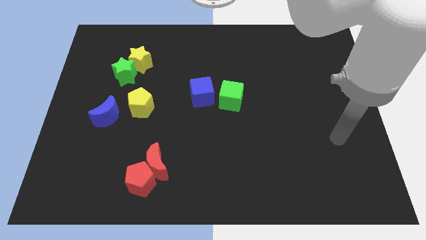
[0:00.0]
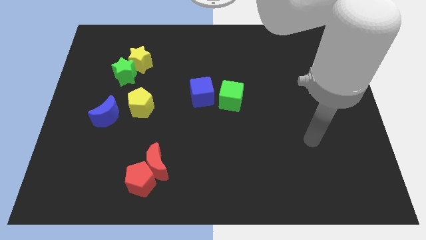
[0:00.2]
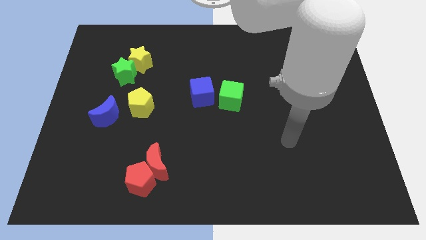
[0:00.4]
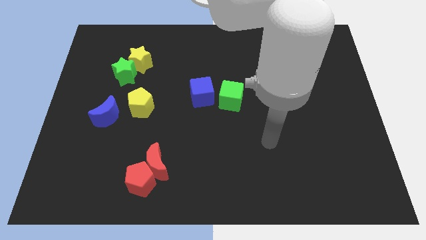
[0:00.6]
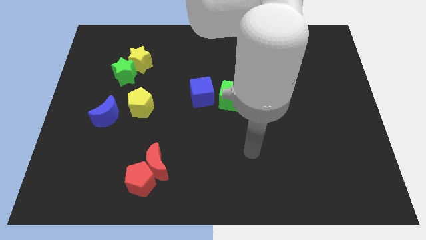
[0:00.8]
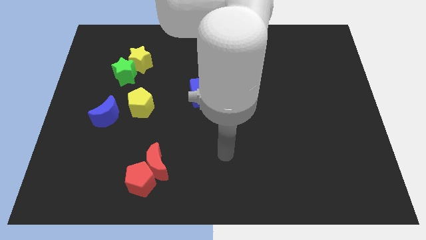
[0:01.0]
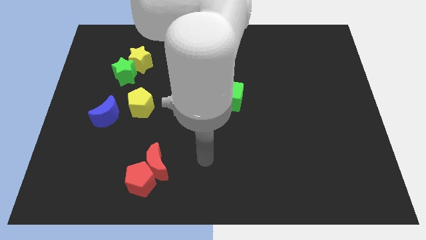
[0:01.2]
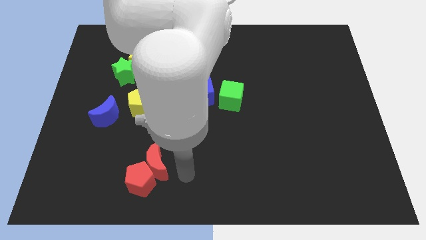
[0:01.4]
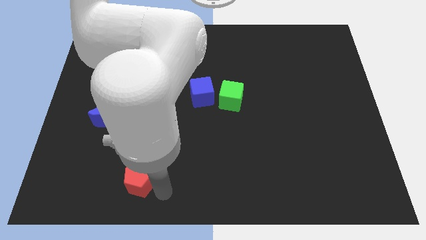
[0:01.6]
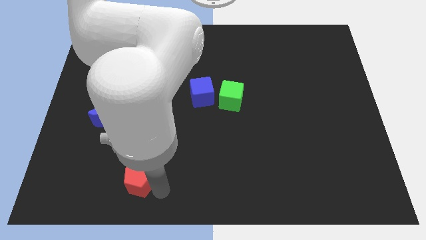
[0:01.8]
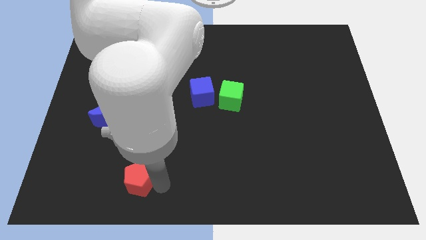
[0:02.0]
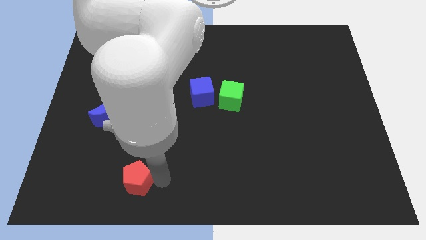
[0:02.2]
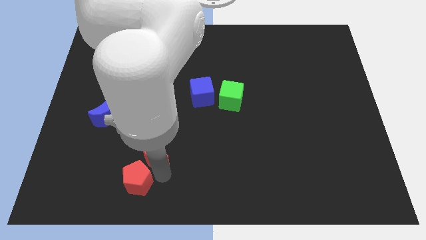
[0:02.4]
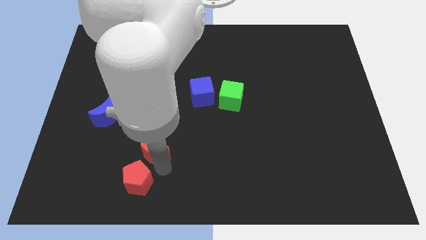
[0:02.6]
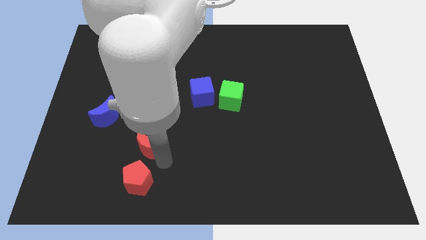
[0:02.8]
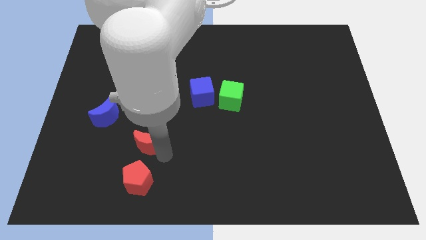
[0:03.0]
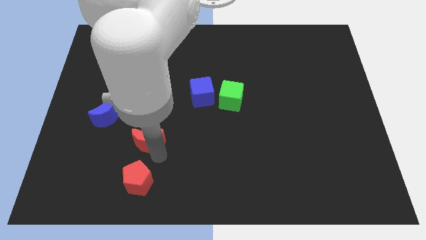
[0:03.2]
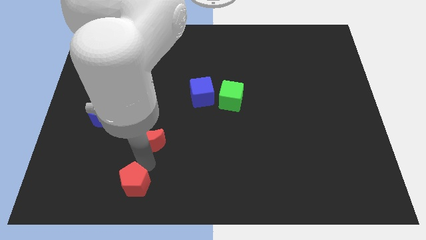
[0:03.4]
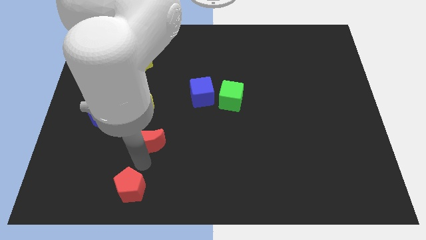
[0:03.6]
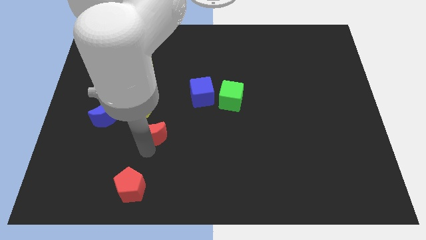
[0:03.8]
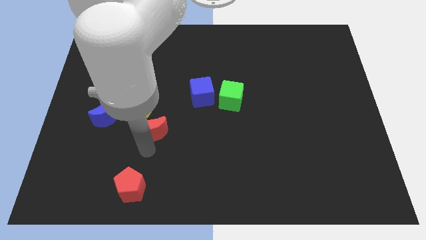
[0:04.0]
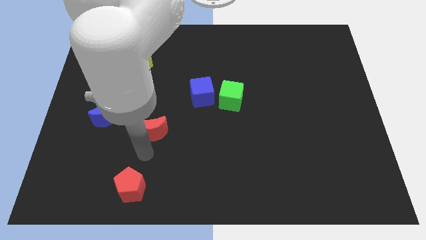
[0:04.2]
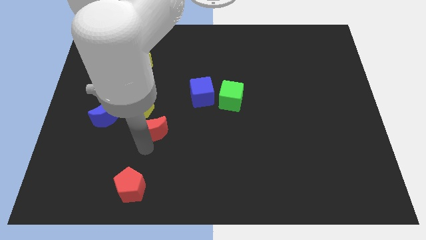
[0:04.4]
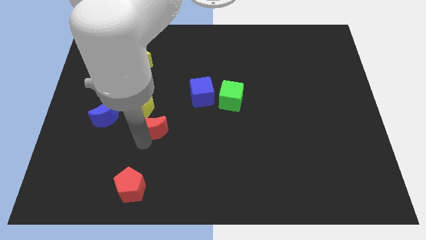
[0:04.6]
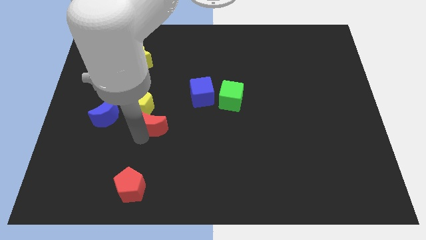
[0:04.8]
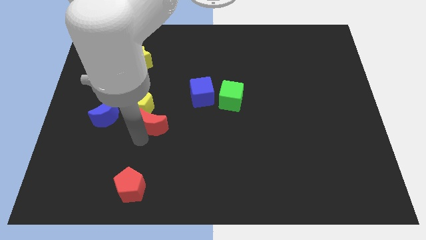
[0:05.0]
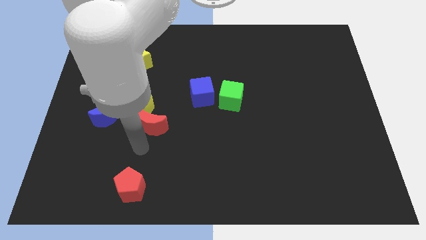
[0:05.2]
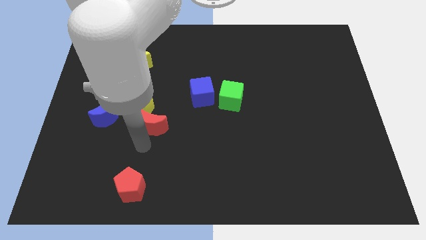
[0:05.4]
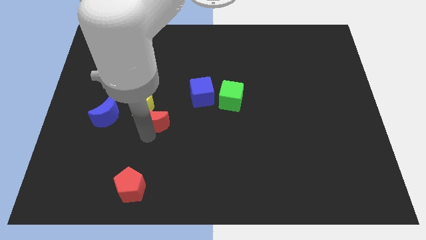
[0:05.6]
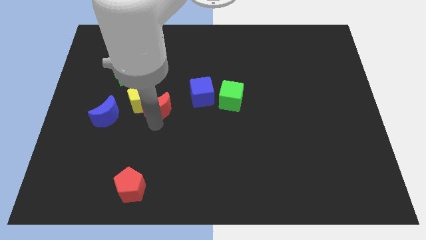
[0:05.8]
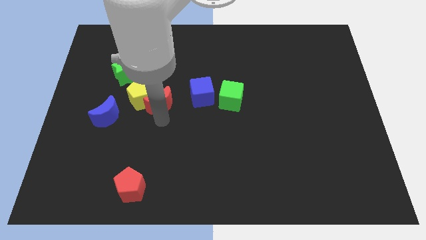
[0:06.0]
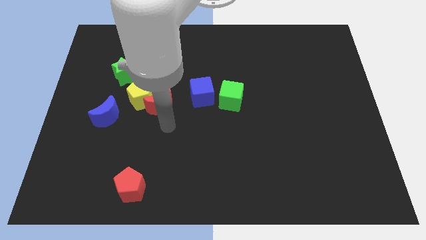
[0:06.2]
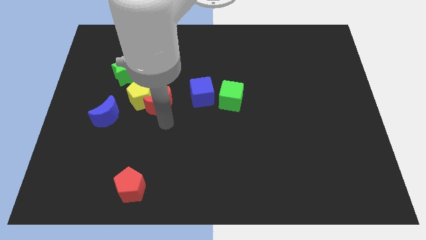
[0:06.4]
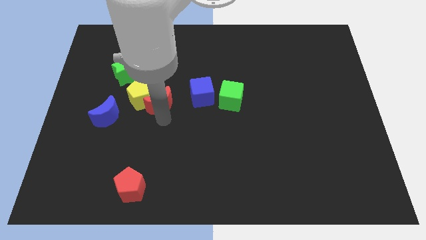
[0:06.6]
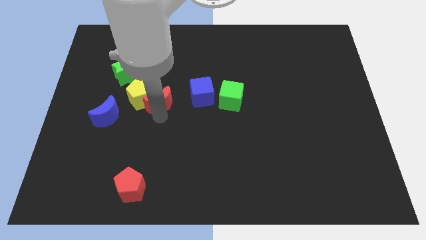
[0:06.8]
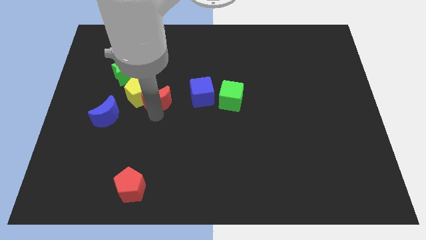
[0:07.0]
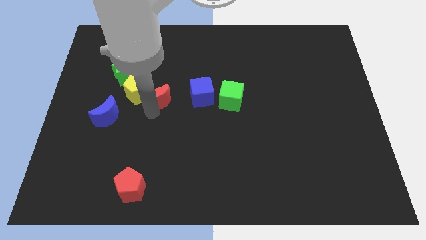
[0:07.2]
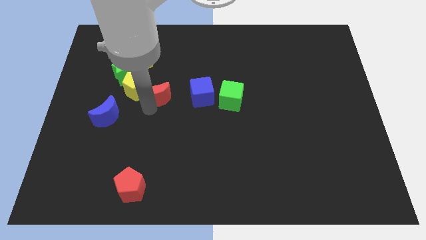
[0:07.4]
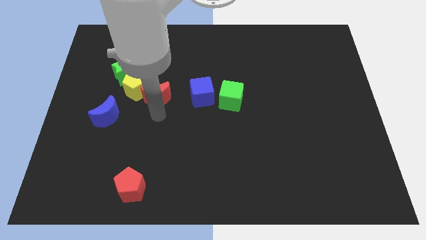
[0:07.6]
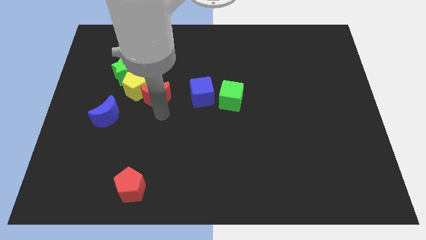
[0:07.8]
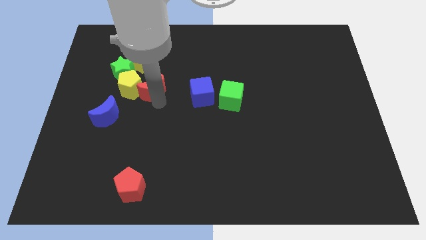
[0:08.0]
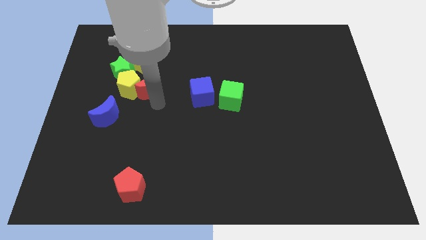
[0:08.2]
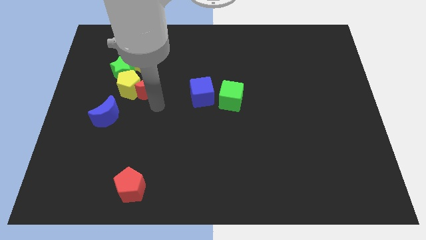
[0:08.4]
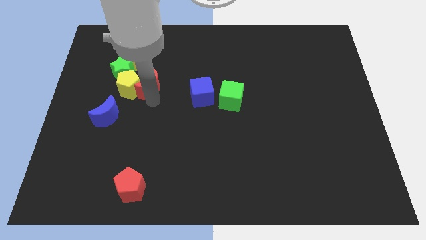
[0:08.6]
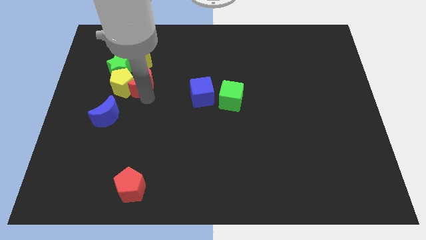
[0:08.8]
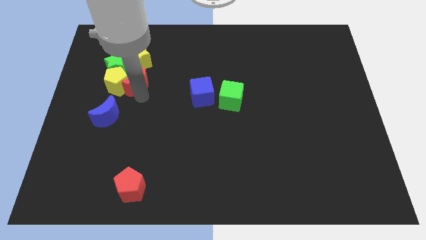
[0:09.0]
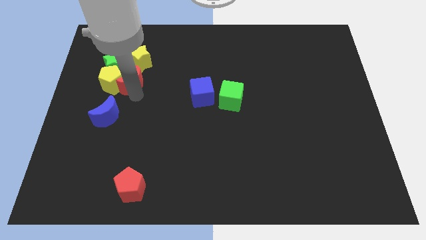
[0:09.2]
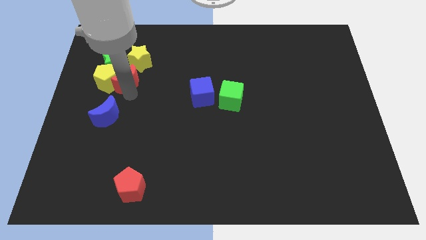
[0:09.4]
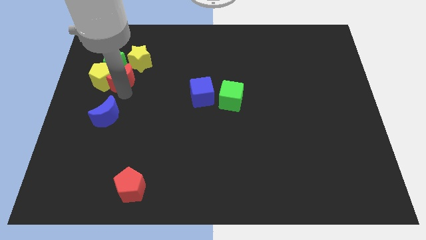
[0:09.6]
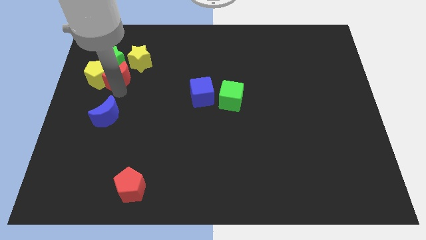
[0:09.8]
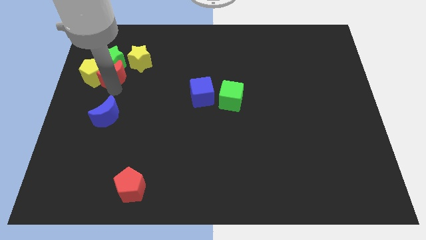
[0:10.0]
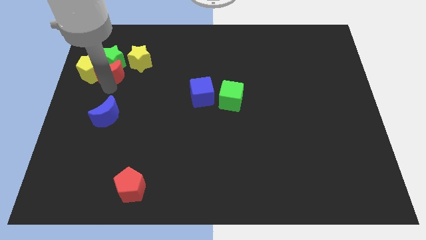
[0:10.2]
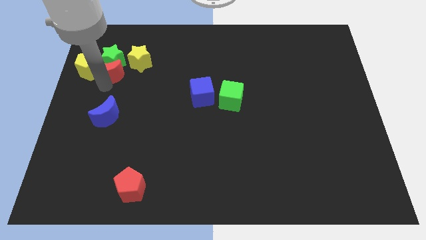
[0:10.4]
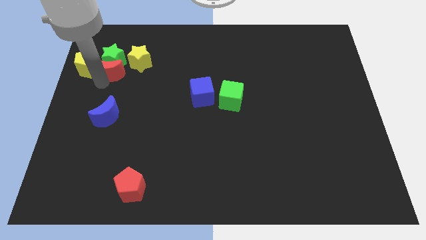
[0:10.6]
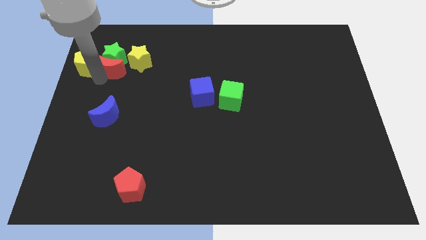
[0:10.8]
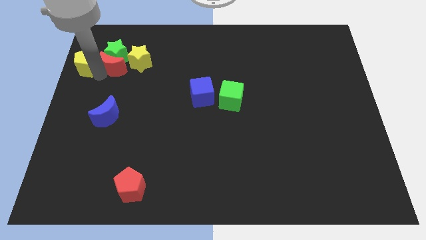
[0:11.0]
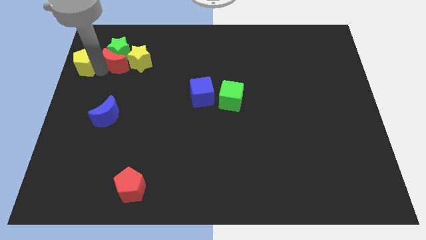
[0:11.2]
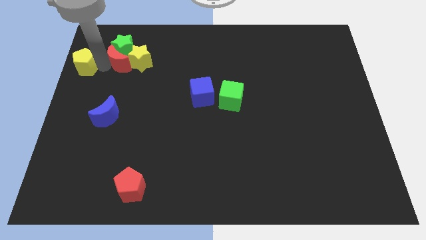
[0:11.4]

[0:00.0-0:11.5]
move the red moon to the yellow star

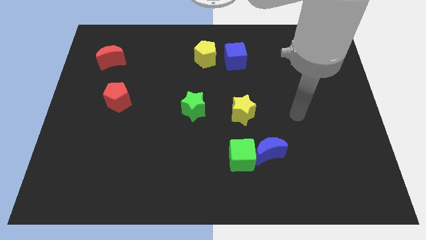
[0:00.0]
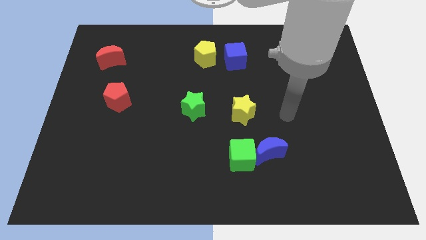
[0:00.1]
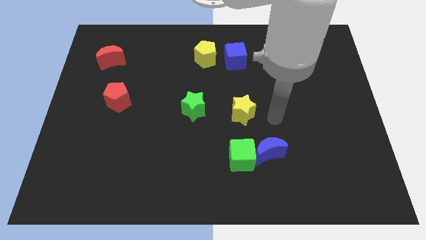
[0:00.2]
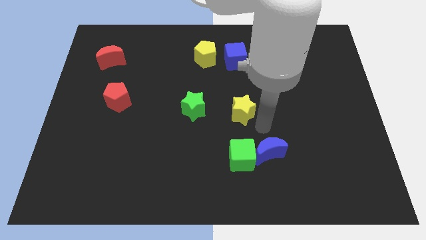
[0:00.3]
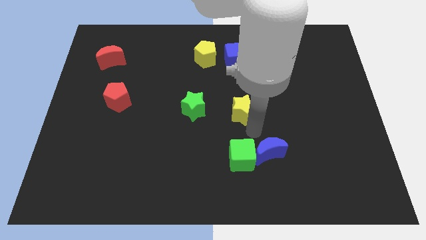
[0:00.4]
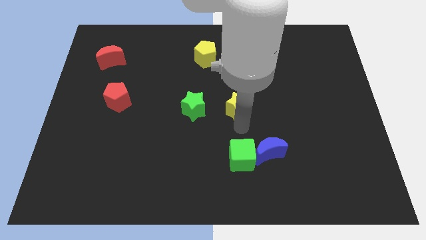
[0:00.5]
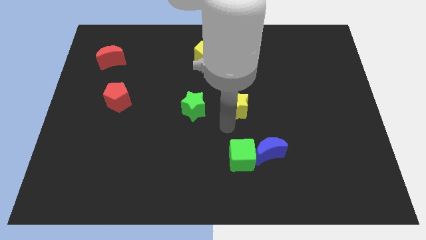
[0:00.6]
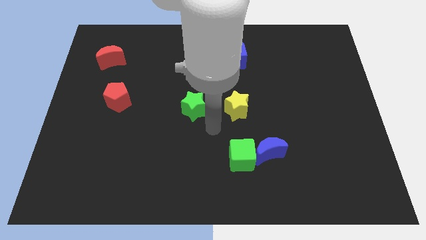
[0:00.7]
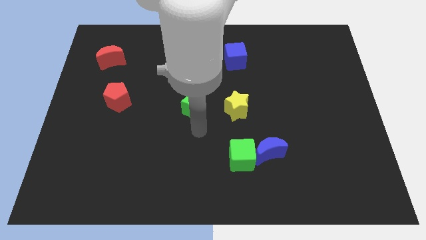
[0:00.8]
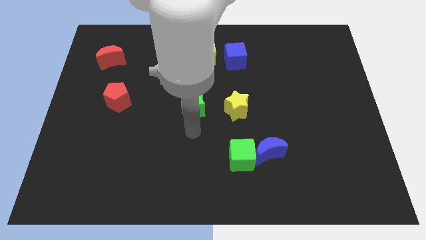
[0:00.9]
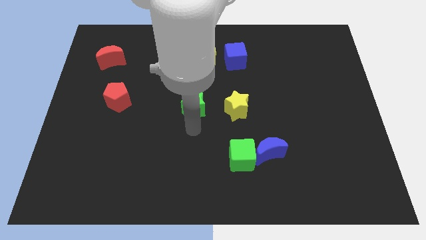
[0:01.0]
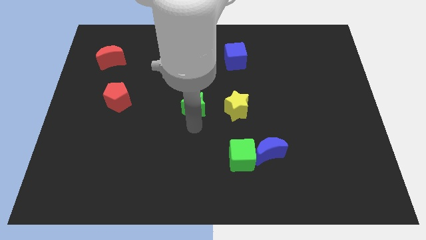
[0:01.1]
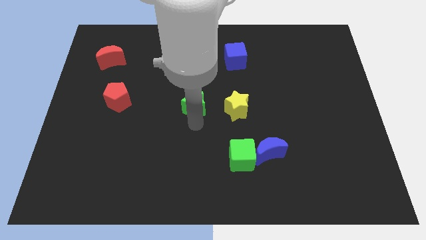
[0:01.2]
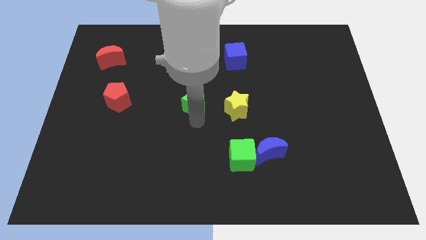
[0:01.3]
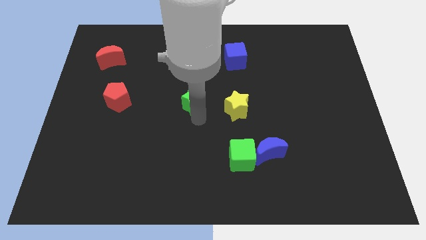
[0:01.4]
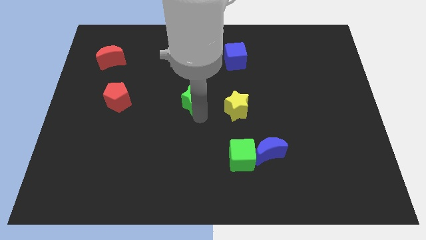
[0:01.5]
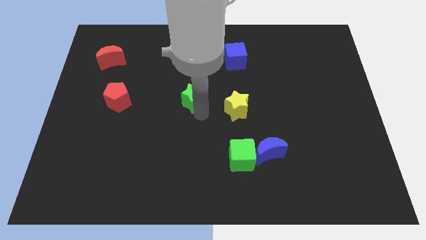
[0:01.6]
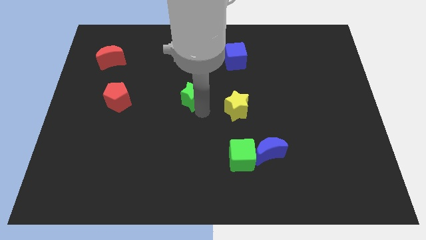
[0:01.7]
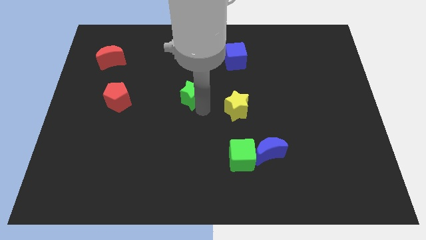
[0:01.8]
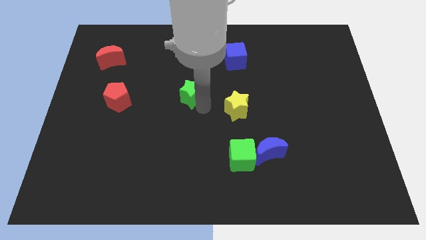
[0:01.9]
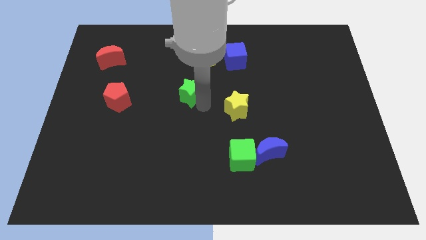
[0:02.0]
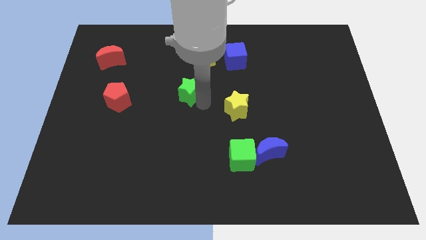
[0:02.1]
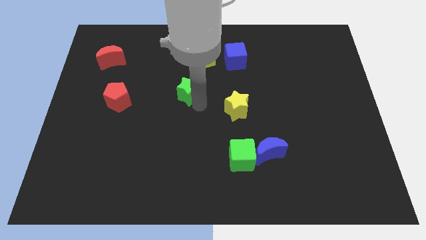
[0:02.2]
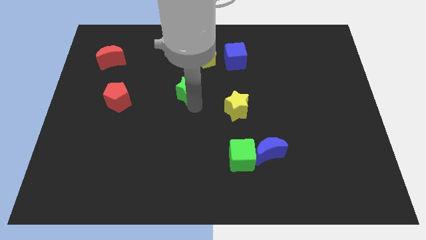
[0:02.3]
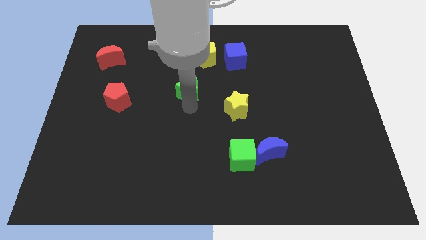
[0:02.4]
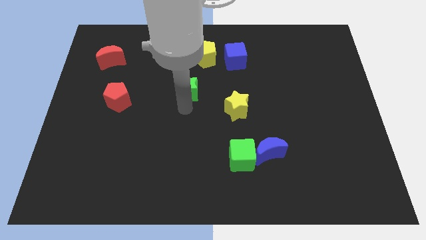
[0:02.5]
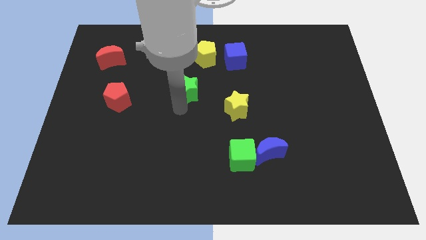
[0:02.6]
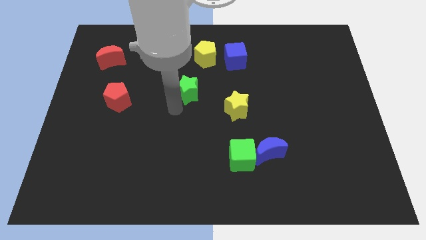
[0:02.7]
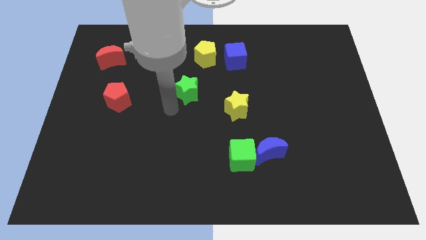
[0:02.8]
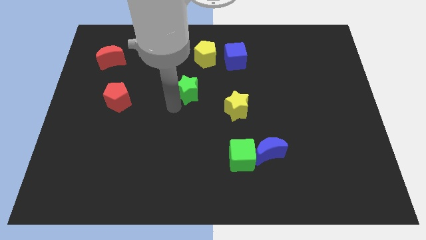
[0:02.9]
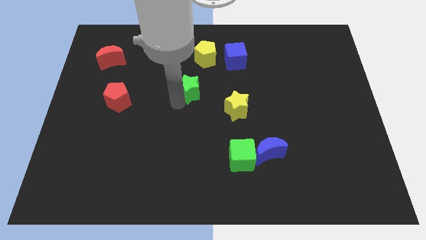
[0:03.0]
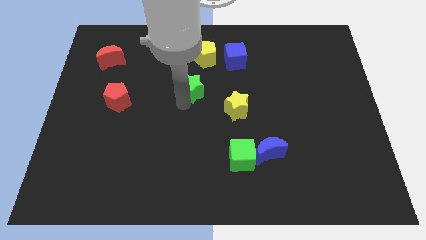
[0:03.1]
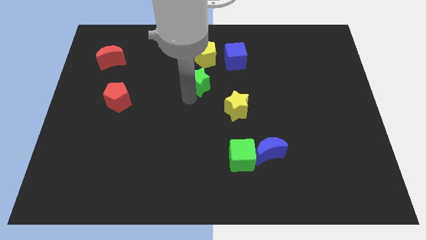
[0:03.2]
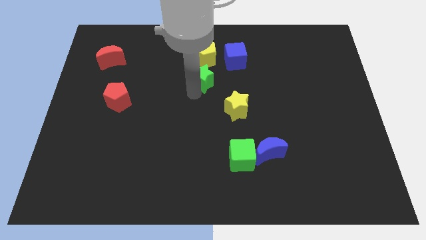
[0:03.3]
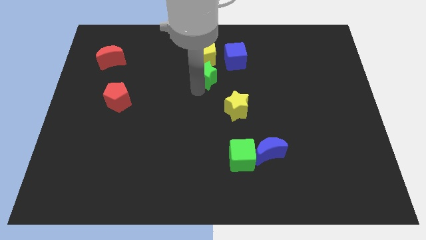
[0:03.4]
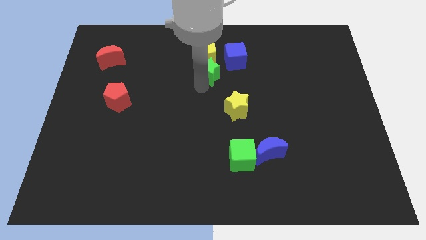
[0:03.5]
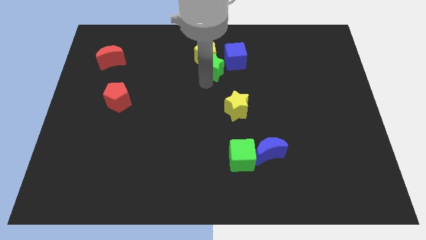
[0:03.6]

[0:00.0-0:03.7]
slide the green star towards the yellow pentagon
